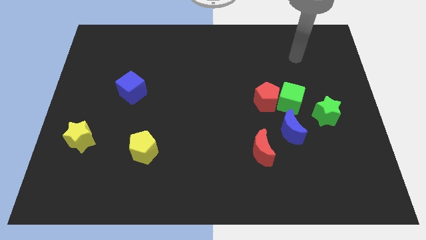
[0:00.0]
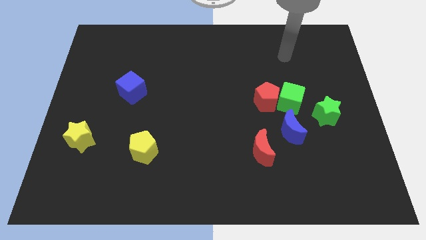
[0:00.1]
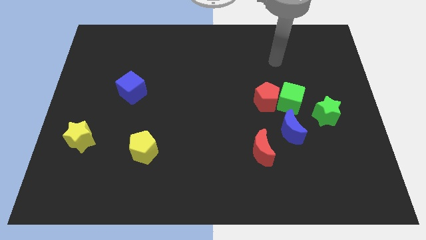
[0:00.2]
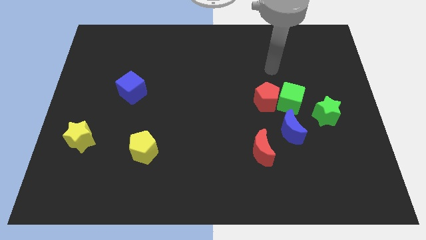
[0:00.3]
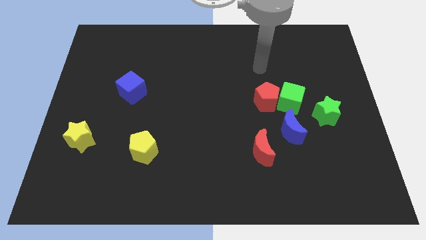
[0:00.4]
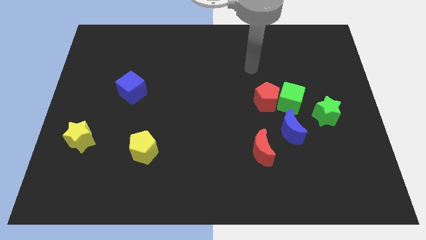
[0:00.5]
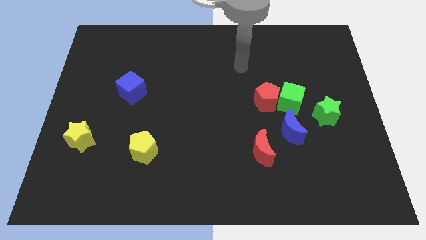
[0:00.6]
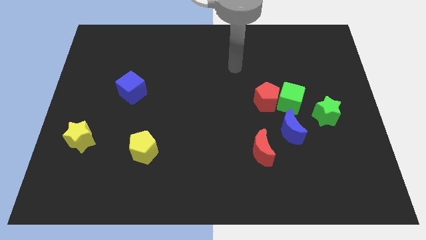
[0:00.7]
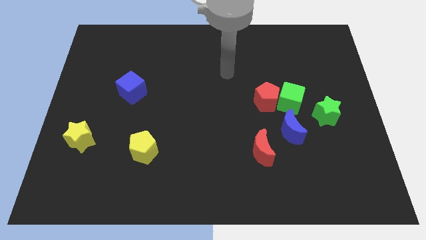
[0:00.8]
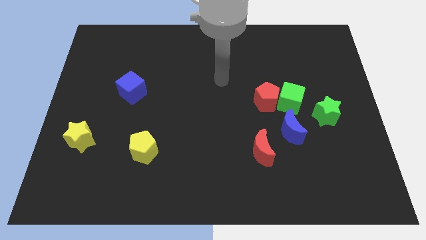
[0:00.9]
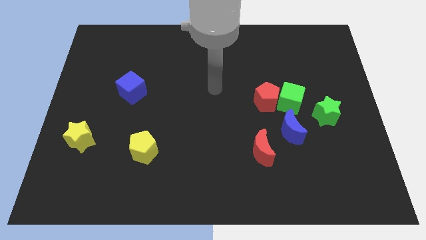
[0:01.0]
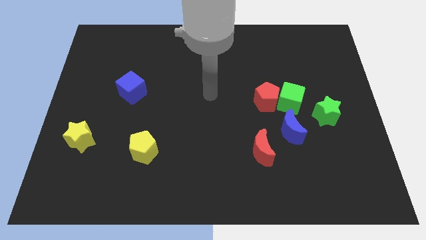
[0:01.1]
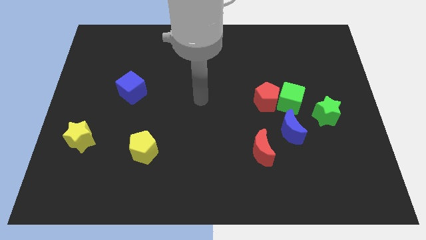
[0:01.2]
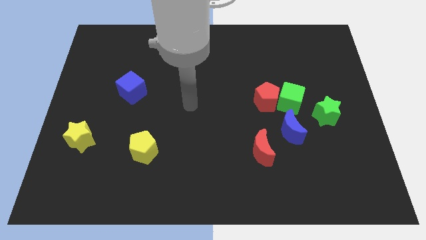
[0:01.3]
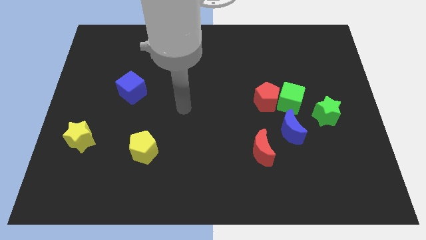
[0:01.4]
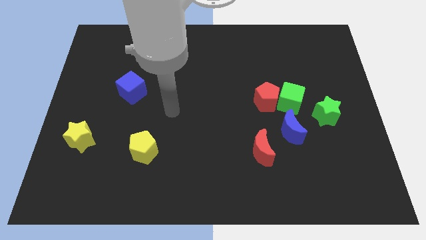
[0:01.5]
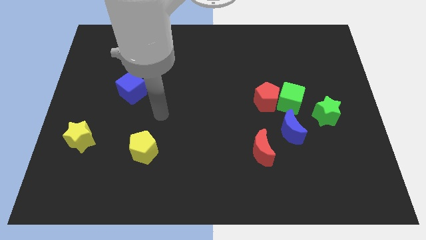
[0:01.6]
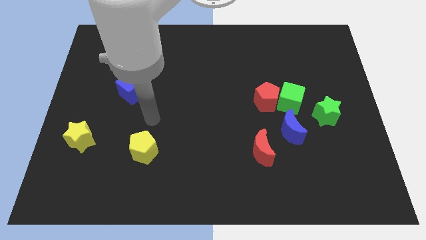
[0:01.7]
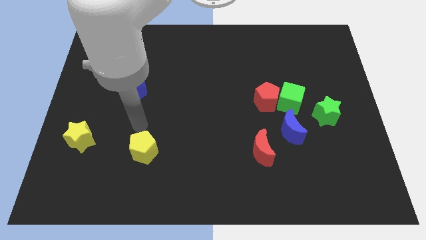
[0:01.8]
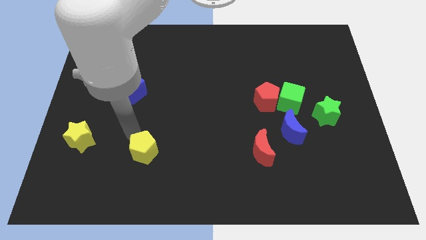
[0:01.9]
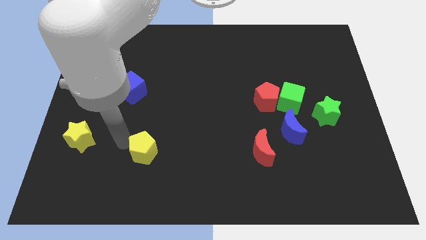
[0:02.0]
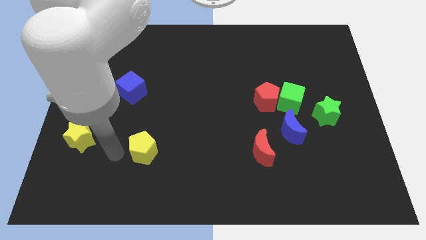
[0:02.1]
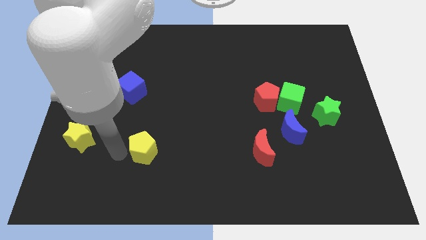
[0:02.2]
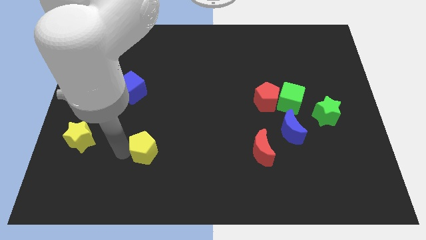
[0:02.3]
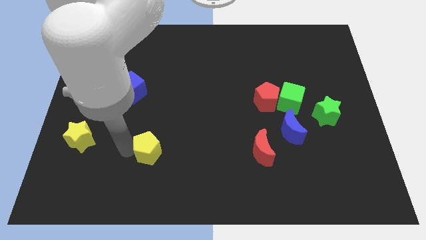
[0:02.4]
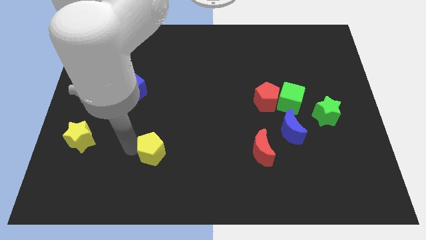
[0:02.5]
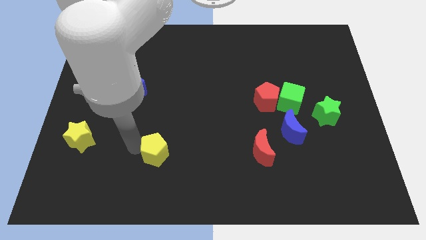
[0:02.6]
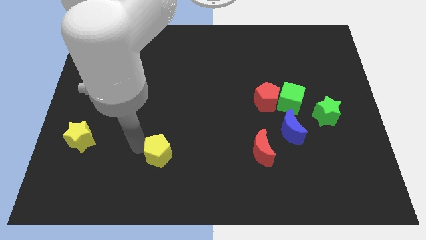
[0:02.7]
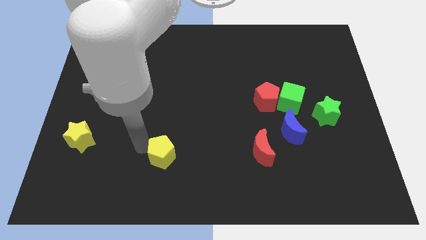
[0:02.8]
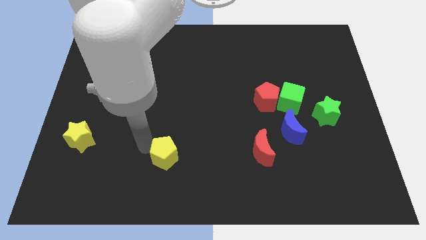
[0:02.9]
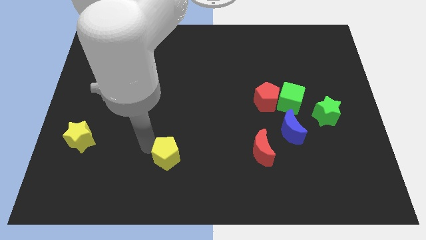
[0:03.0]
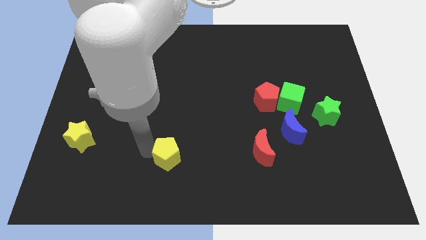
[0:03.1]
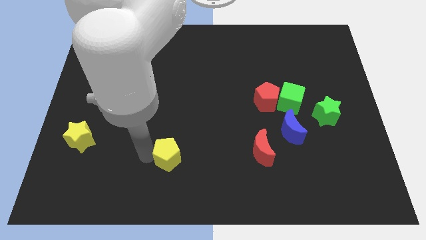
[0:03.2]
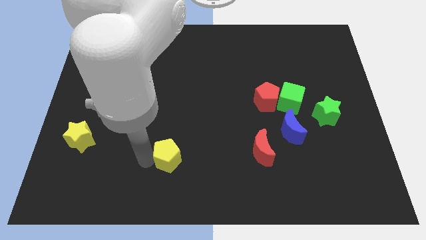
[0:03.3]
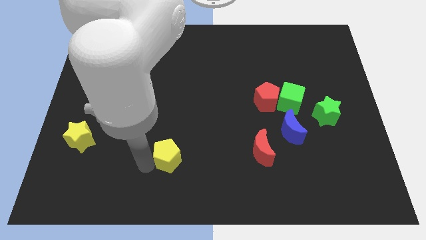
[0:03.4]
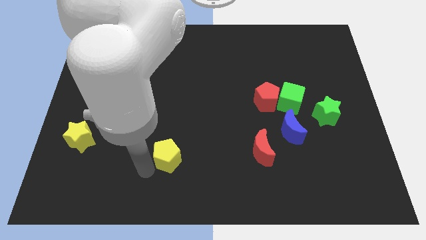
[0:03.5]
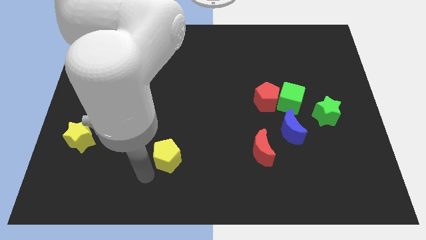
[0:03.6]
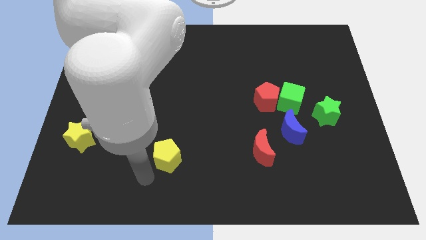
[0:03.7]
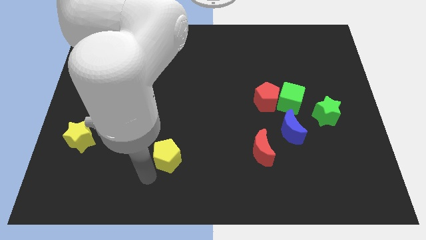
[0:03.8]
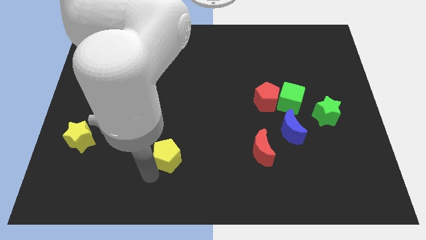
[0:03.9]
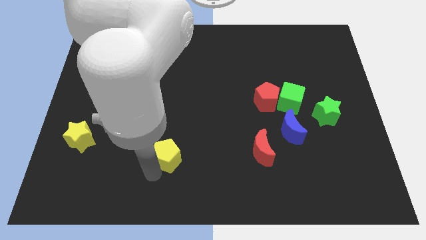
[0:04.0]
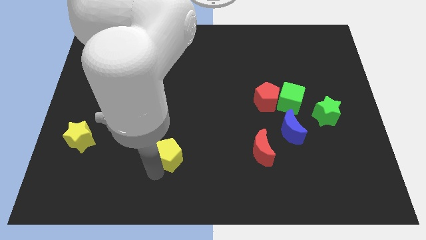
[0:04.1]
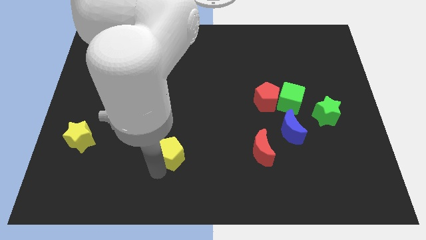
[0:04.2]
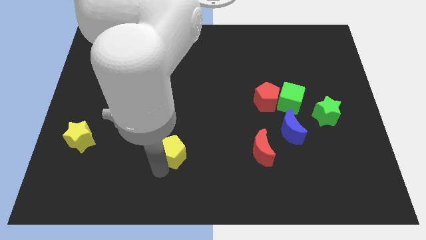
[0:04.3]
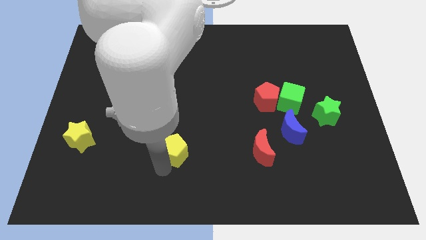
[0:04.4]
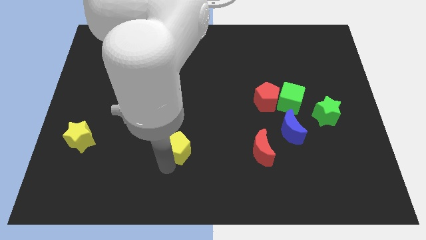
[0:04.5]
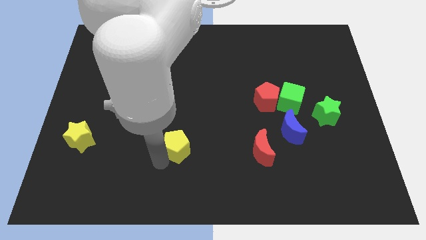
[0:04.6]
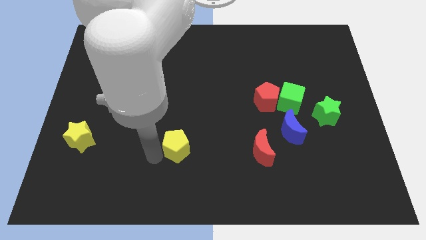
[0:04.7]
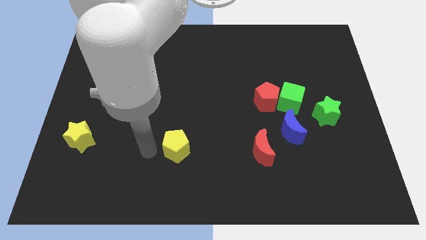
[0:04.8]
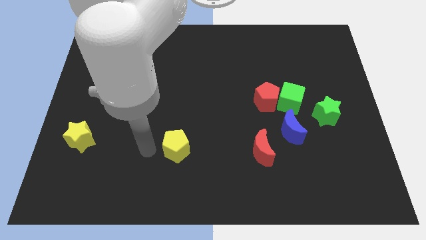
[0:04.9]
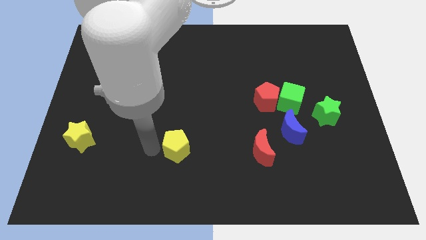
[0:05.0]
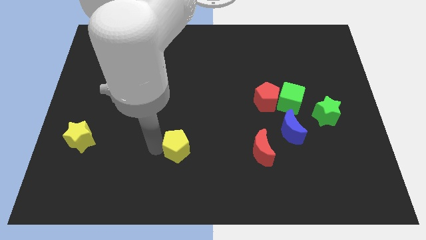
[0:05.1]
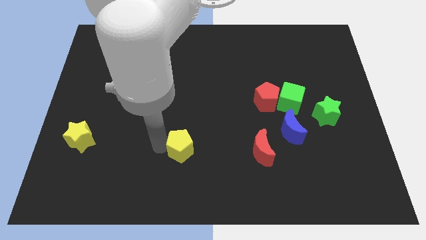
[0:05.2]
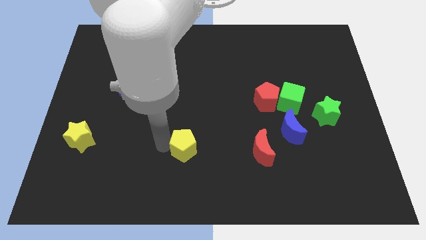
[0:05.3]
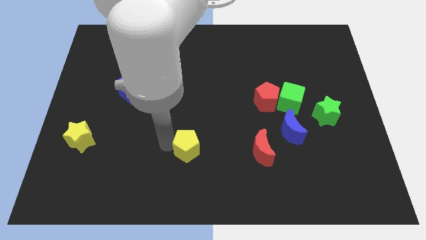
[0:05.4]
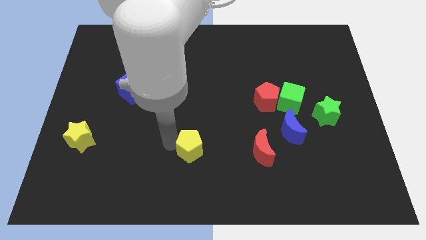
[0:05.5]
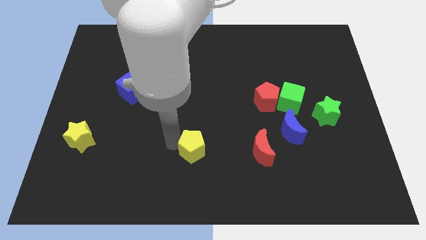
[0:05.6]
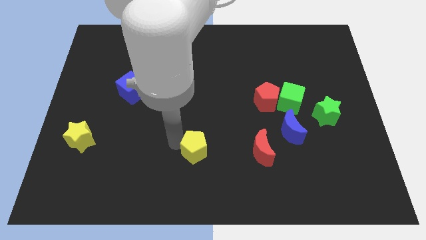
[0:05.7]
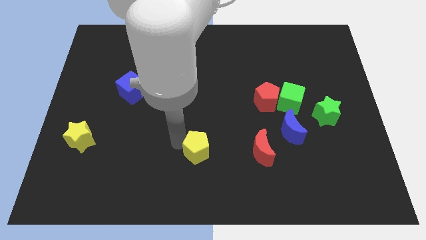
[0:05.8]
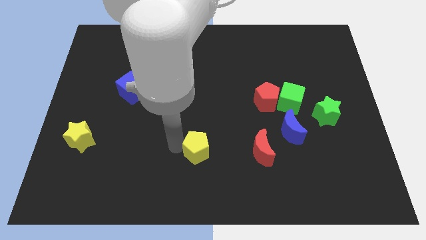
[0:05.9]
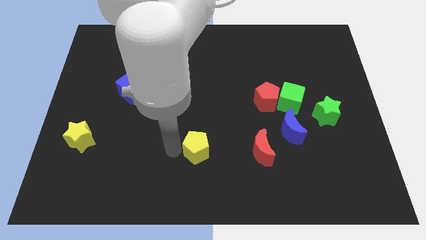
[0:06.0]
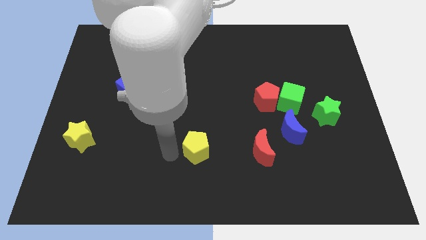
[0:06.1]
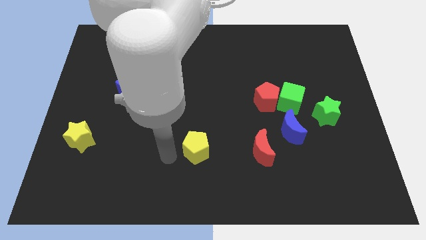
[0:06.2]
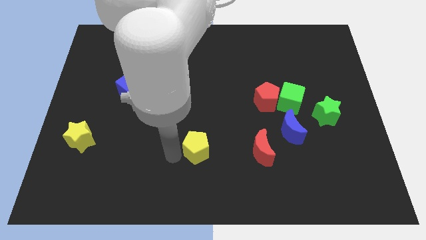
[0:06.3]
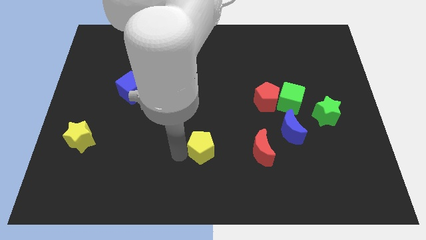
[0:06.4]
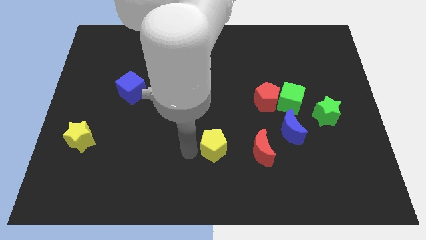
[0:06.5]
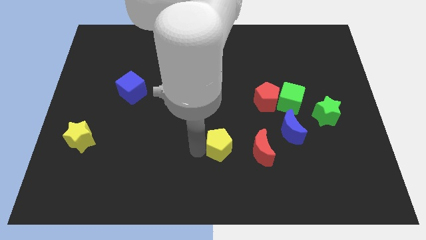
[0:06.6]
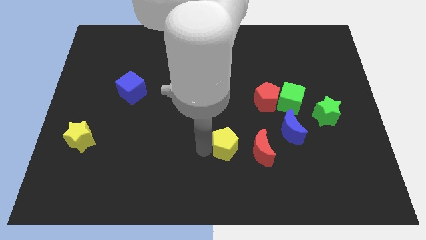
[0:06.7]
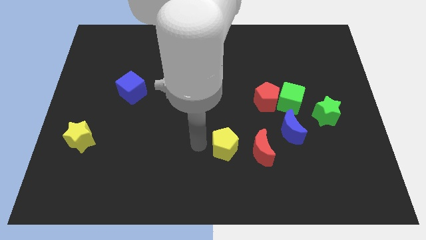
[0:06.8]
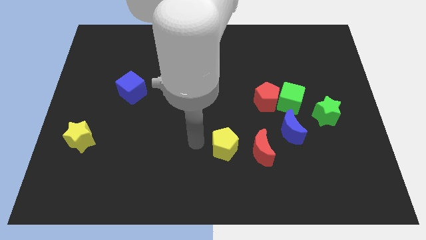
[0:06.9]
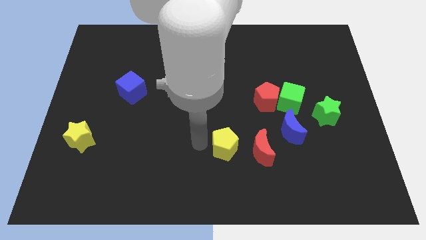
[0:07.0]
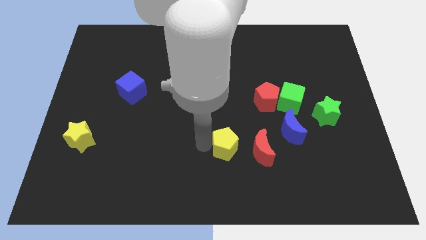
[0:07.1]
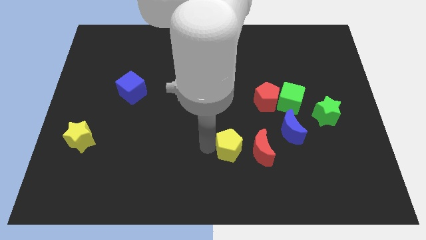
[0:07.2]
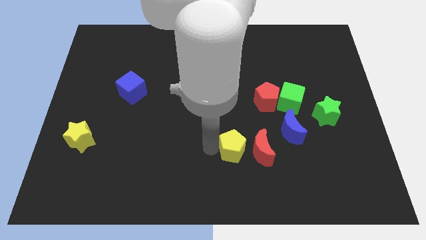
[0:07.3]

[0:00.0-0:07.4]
slide the yellow pentagon close to the red moon
